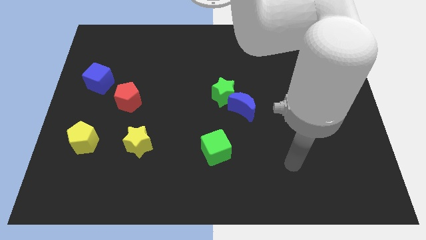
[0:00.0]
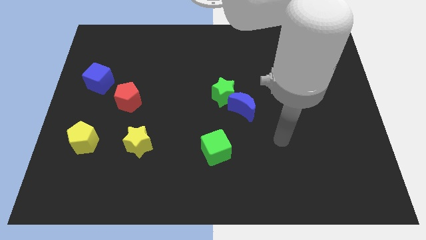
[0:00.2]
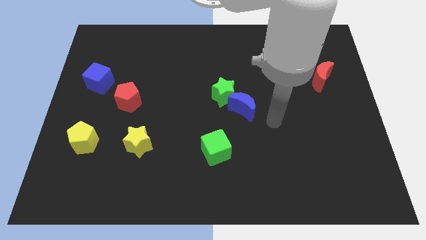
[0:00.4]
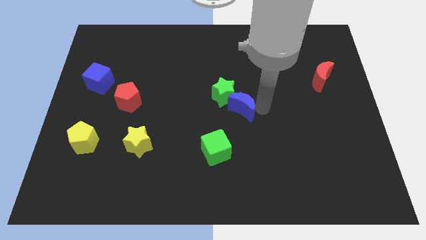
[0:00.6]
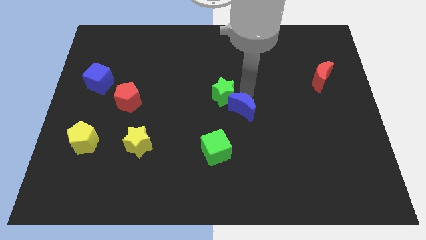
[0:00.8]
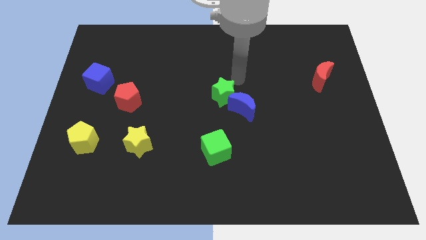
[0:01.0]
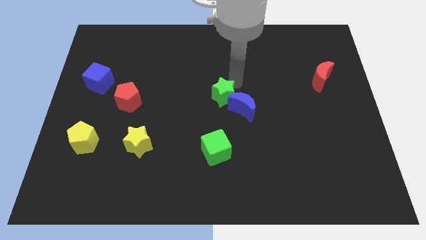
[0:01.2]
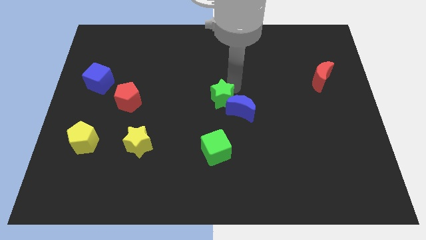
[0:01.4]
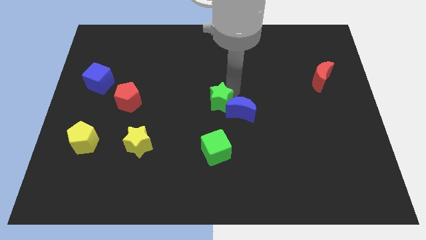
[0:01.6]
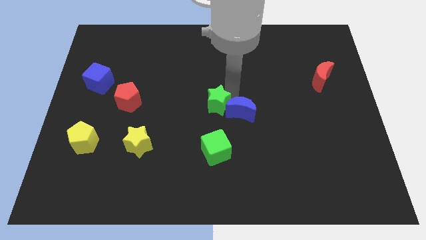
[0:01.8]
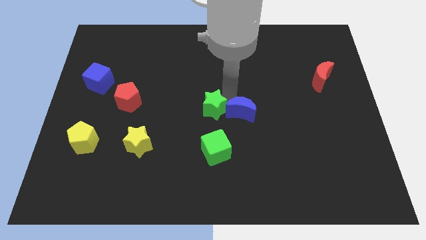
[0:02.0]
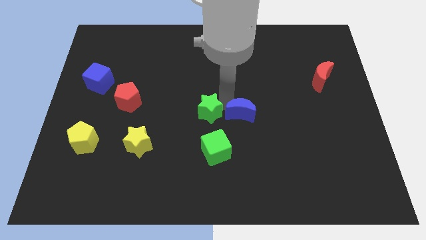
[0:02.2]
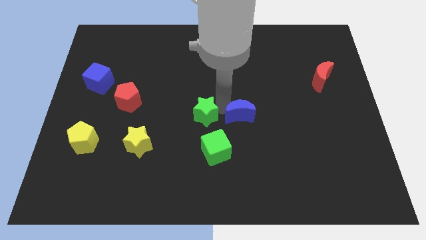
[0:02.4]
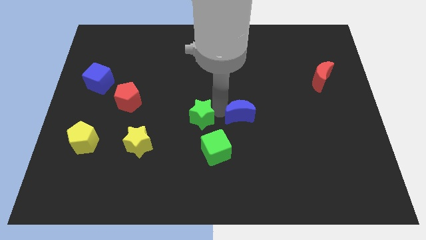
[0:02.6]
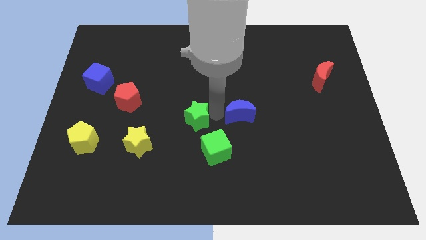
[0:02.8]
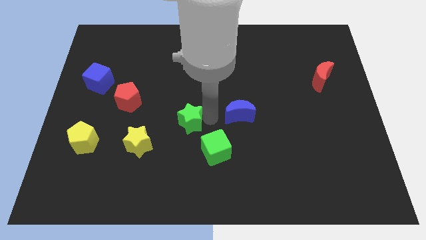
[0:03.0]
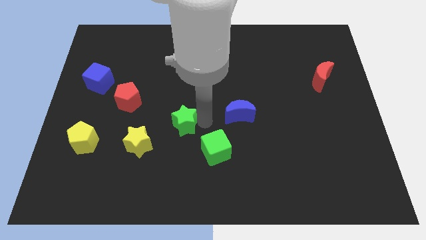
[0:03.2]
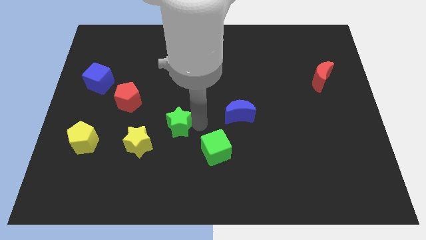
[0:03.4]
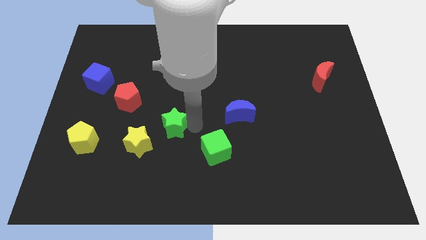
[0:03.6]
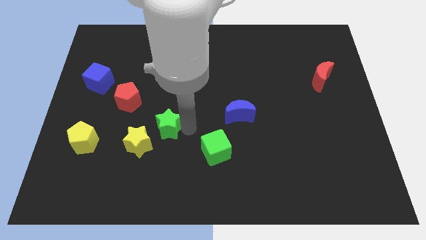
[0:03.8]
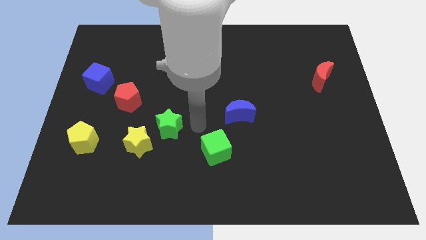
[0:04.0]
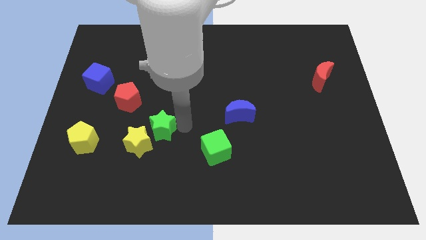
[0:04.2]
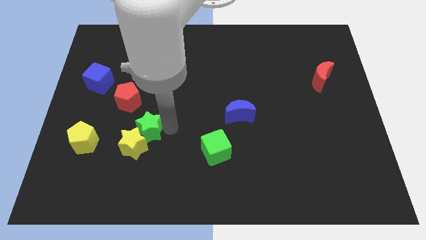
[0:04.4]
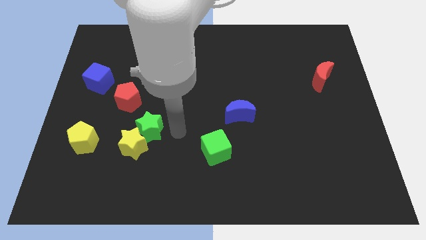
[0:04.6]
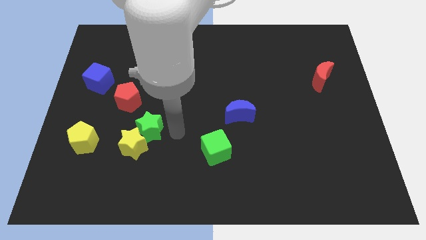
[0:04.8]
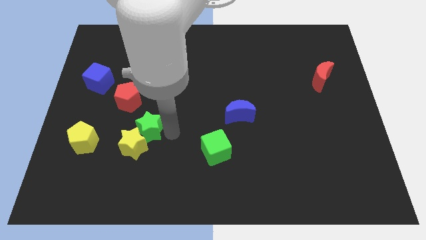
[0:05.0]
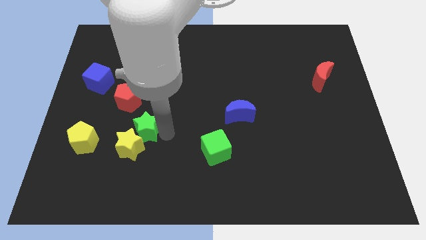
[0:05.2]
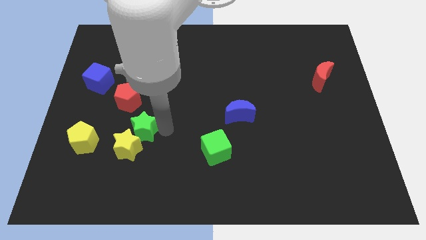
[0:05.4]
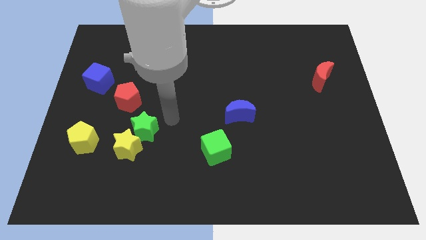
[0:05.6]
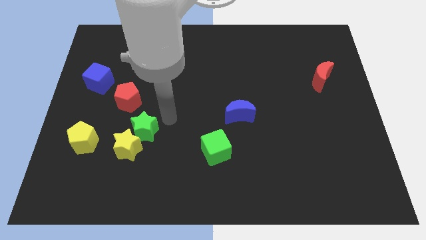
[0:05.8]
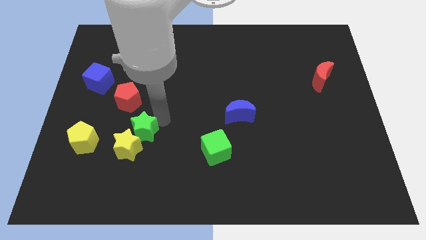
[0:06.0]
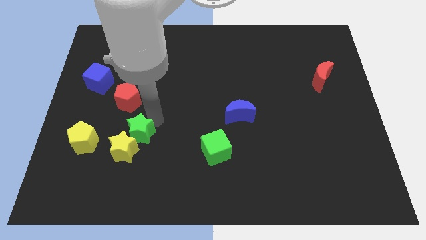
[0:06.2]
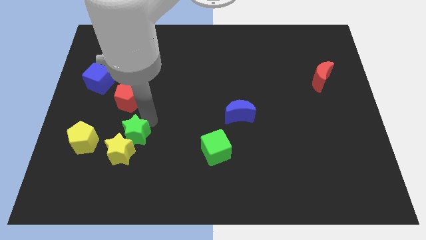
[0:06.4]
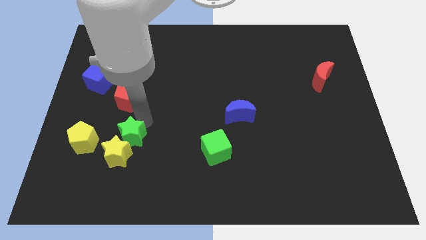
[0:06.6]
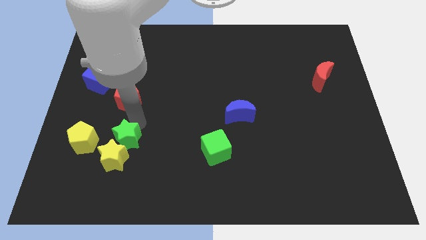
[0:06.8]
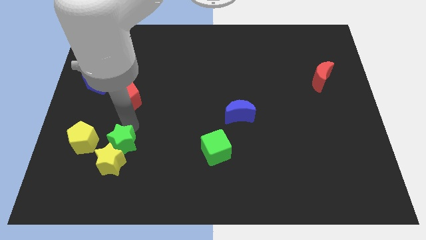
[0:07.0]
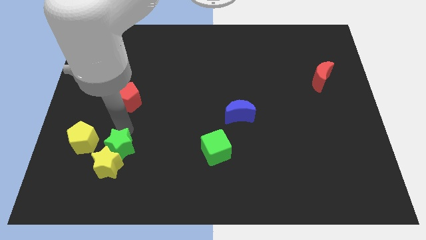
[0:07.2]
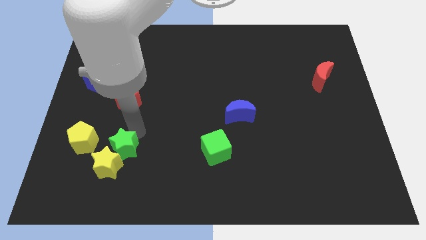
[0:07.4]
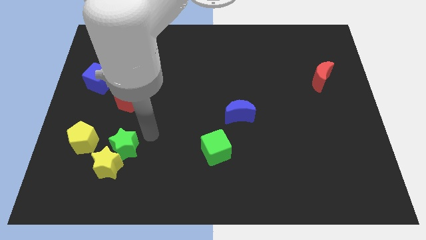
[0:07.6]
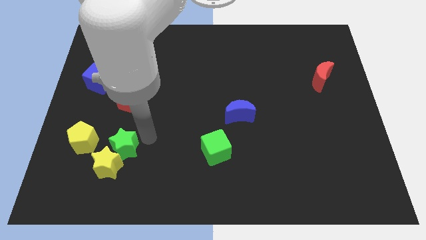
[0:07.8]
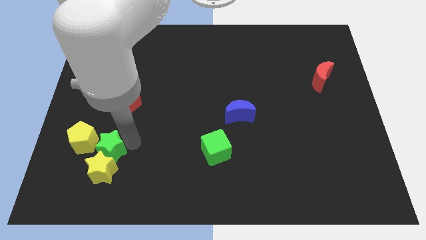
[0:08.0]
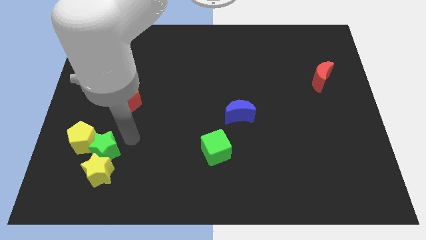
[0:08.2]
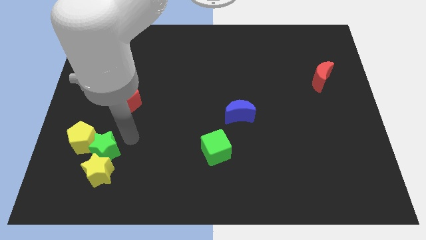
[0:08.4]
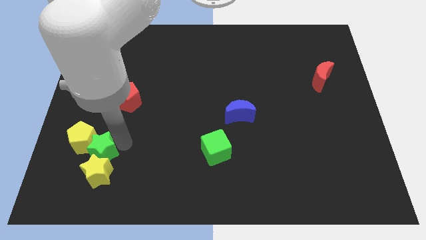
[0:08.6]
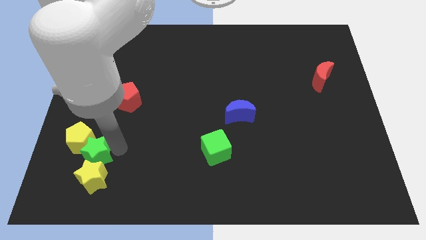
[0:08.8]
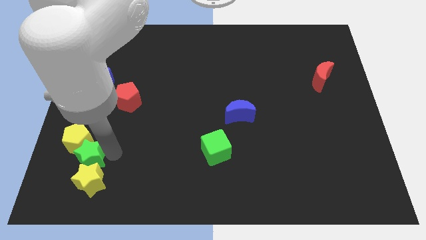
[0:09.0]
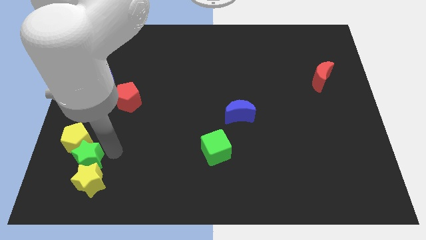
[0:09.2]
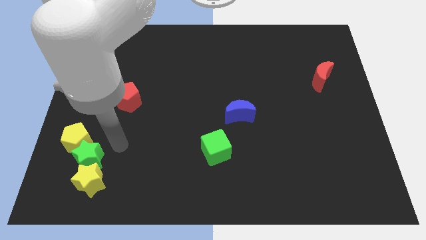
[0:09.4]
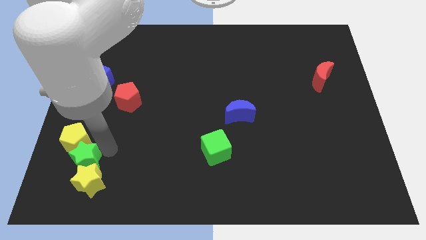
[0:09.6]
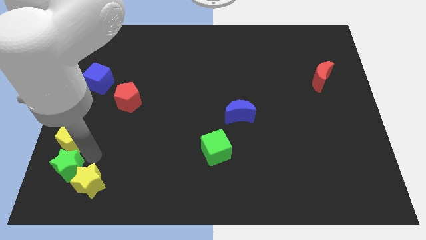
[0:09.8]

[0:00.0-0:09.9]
slide the green star to the lower left corner

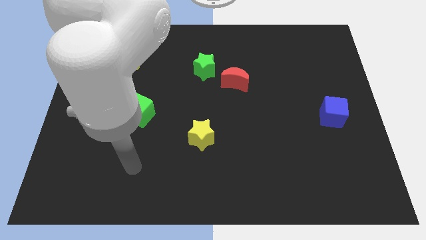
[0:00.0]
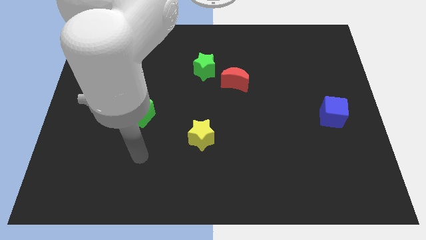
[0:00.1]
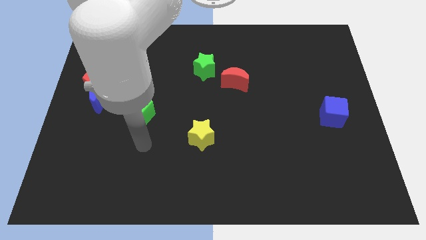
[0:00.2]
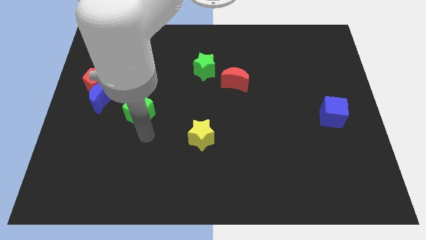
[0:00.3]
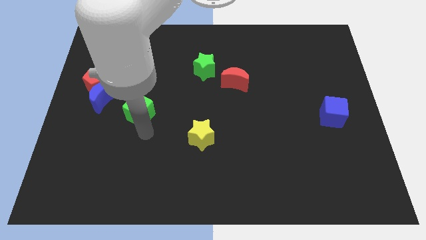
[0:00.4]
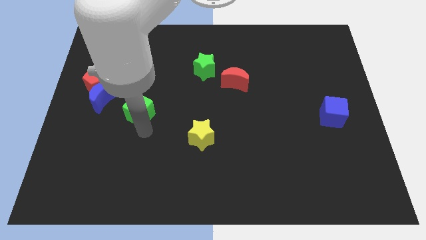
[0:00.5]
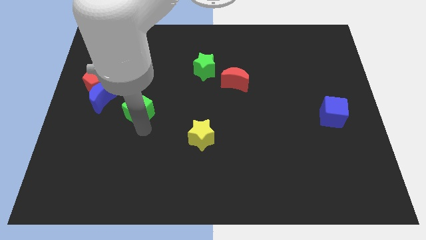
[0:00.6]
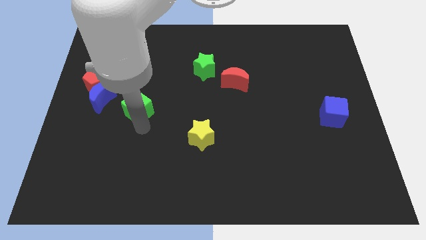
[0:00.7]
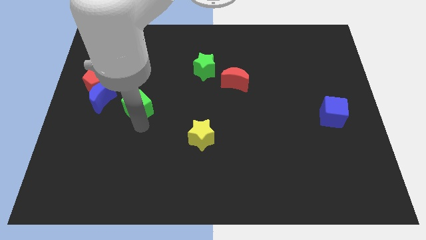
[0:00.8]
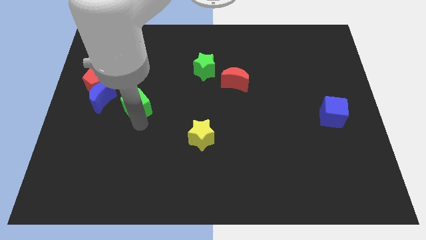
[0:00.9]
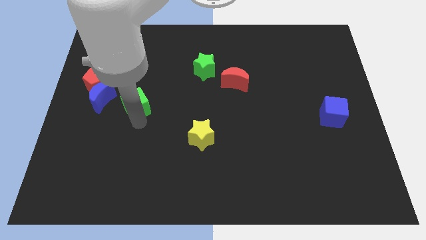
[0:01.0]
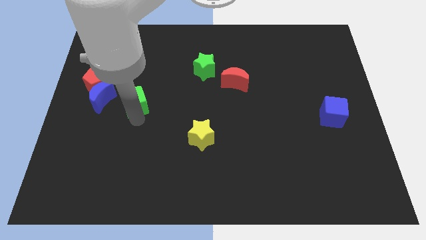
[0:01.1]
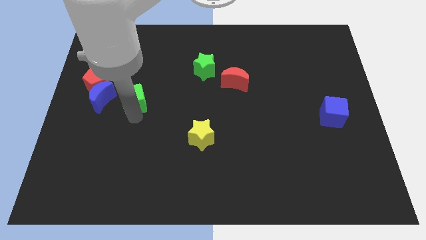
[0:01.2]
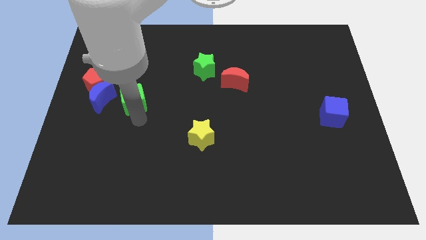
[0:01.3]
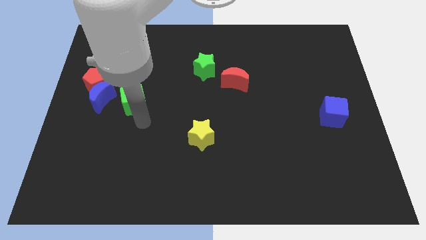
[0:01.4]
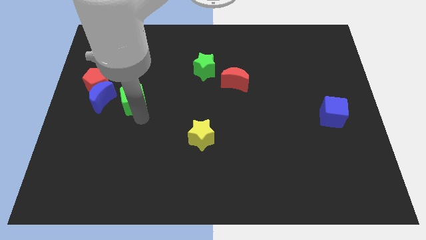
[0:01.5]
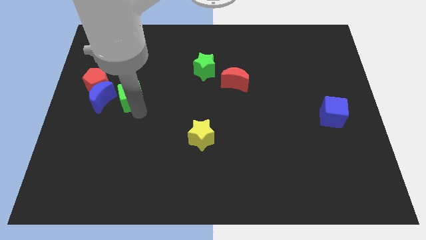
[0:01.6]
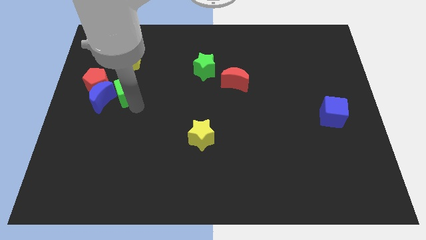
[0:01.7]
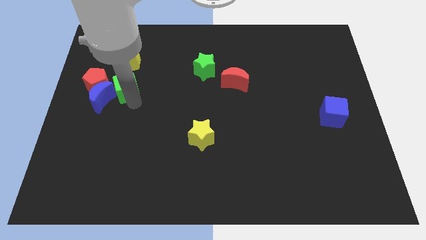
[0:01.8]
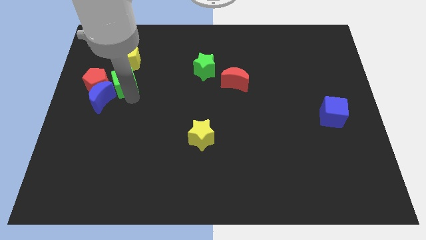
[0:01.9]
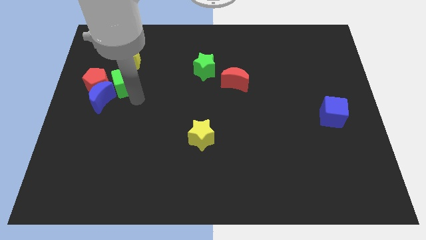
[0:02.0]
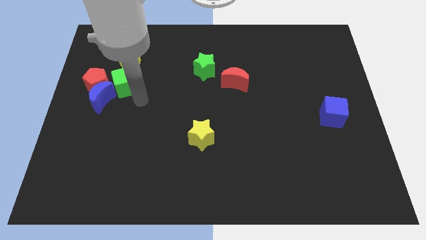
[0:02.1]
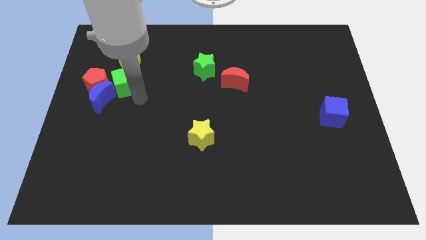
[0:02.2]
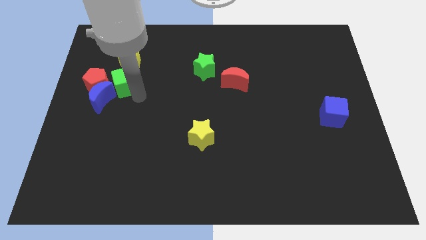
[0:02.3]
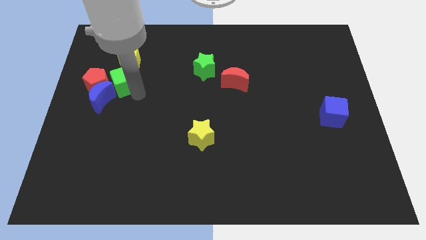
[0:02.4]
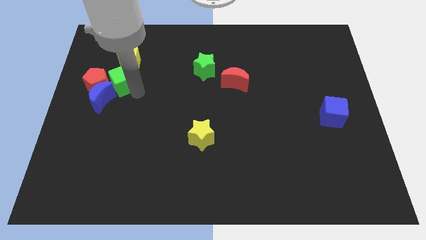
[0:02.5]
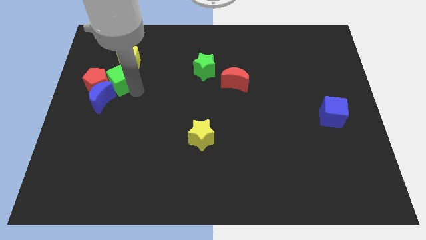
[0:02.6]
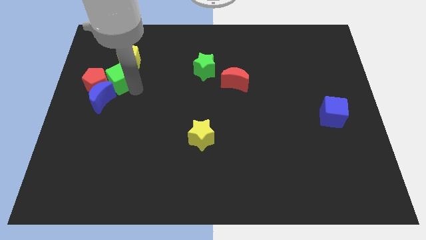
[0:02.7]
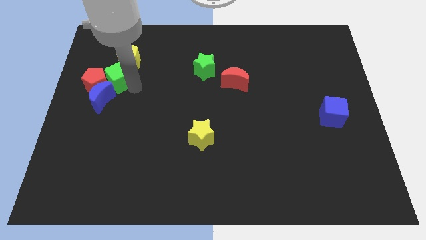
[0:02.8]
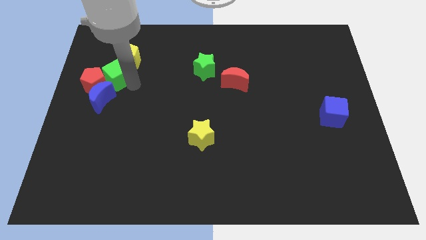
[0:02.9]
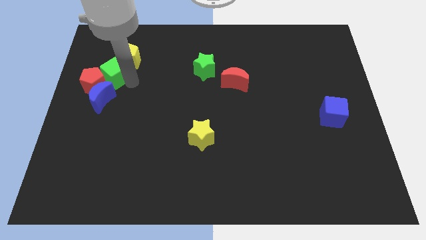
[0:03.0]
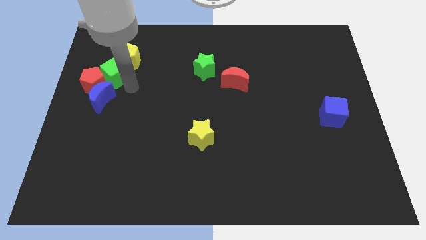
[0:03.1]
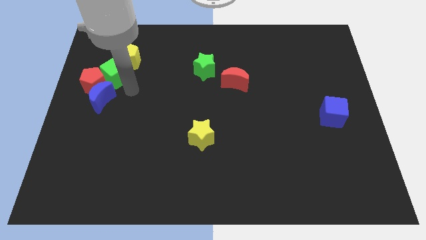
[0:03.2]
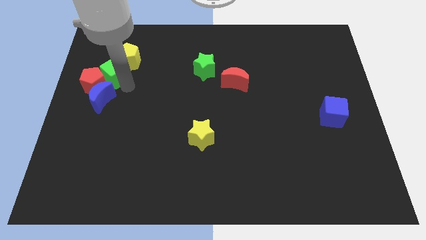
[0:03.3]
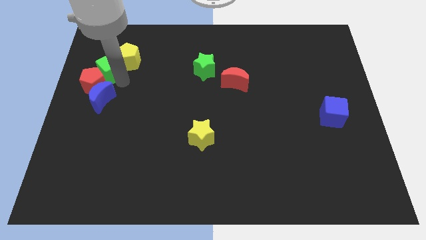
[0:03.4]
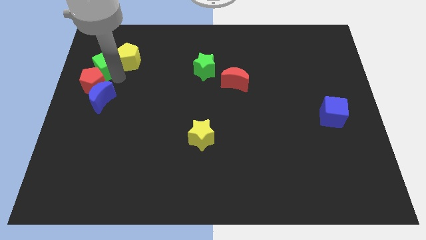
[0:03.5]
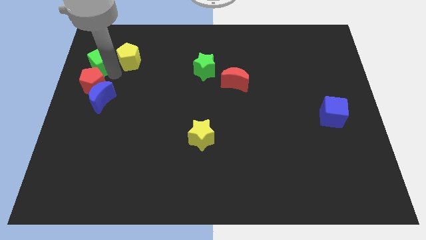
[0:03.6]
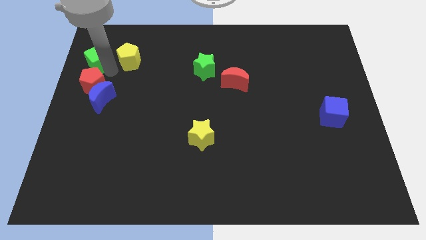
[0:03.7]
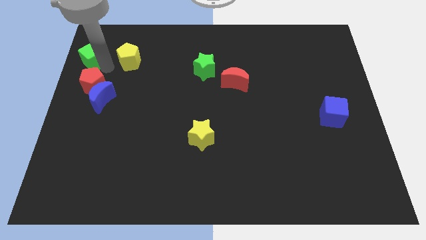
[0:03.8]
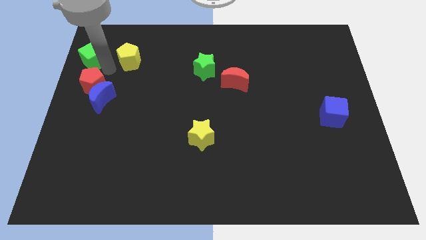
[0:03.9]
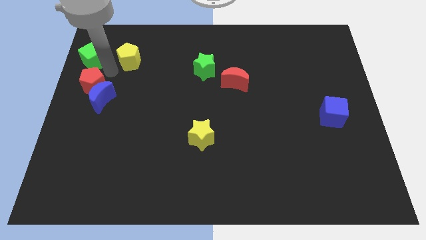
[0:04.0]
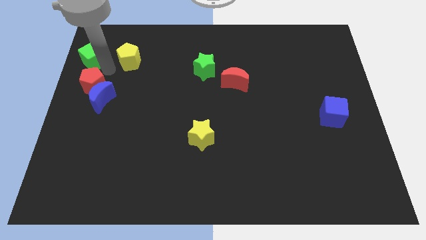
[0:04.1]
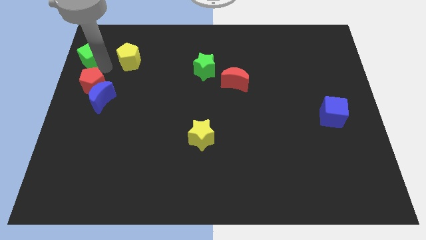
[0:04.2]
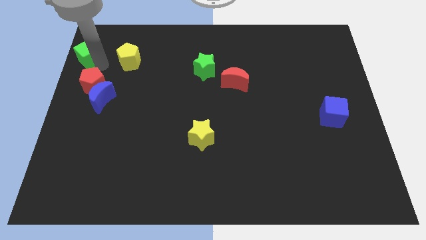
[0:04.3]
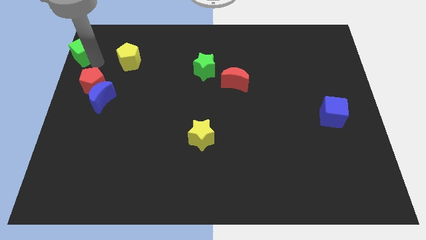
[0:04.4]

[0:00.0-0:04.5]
put the green cube to the top left
